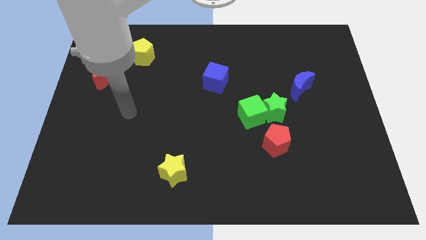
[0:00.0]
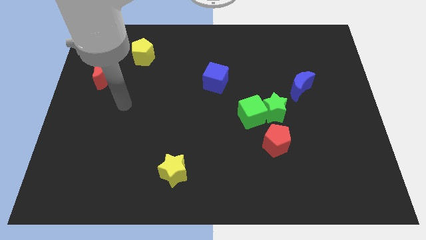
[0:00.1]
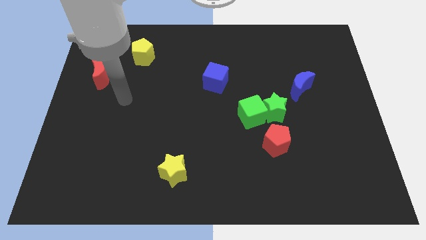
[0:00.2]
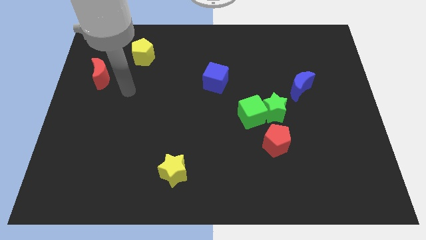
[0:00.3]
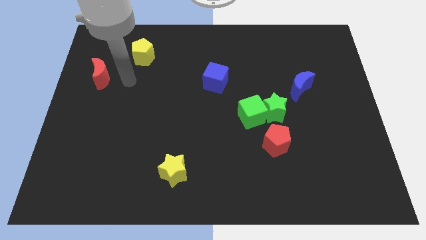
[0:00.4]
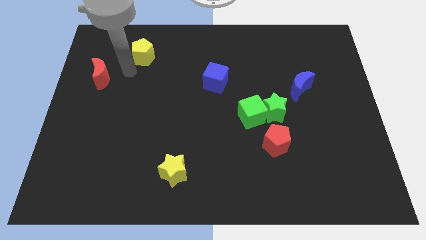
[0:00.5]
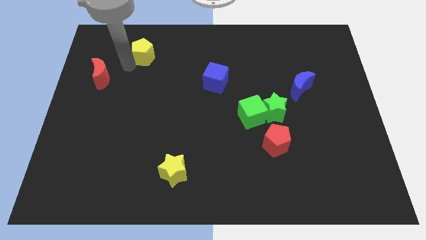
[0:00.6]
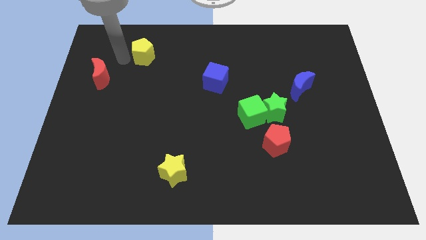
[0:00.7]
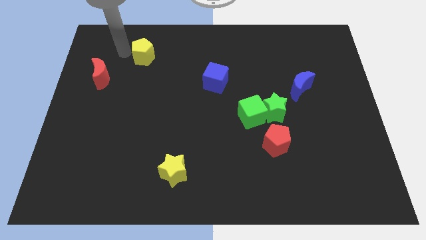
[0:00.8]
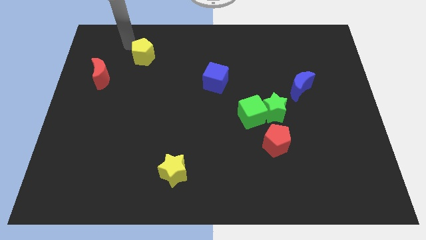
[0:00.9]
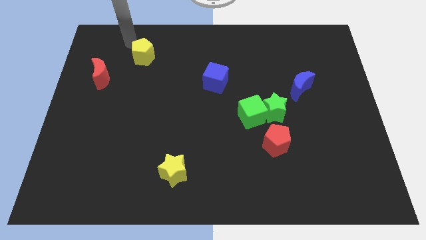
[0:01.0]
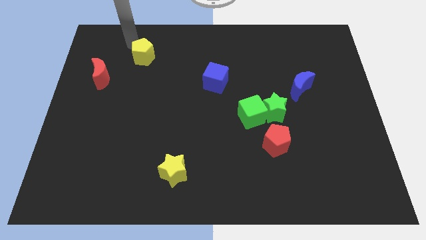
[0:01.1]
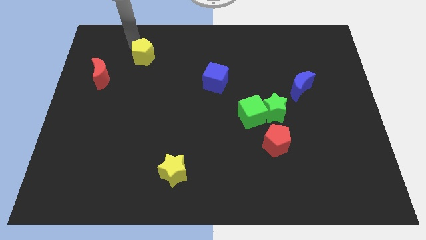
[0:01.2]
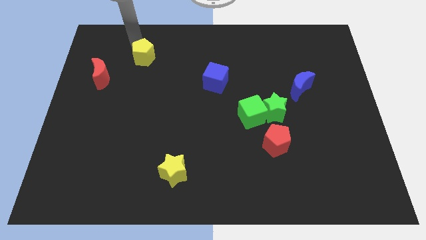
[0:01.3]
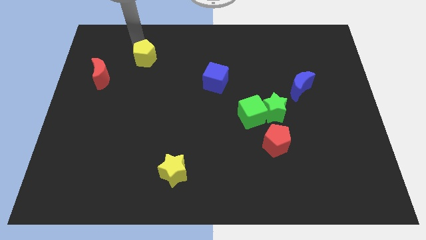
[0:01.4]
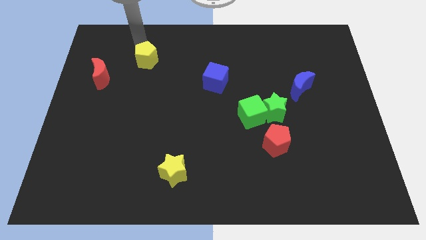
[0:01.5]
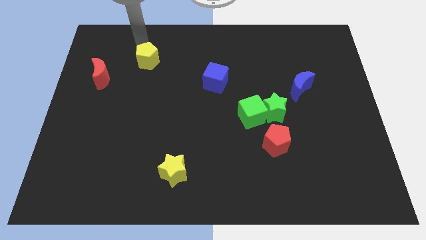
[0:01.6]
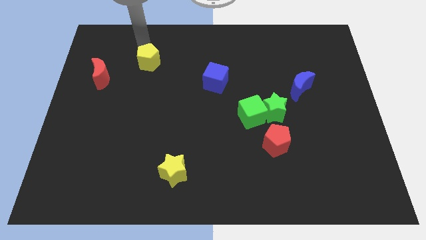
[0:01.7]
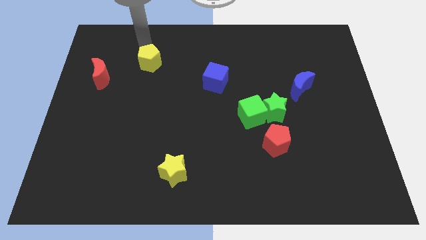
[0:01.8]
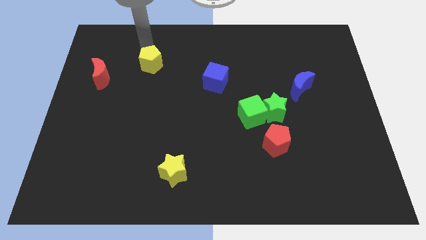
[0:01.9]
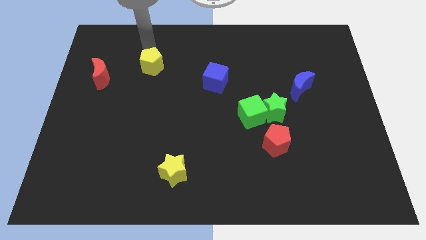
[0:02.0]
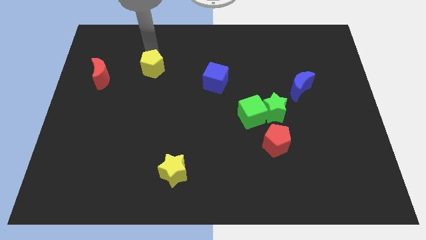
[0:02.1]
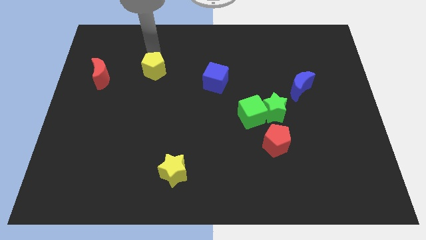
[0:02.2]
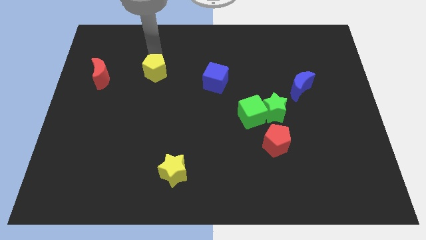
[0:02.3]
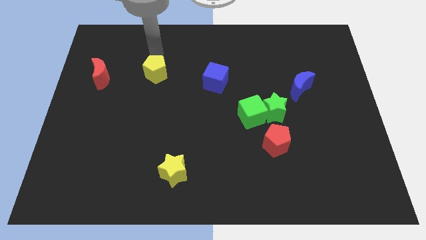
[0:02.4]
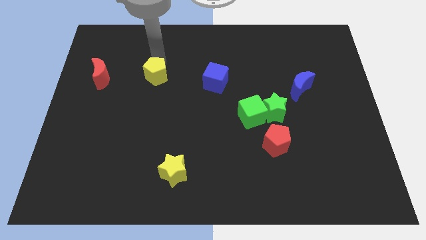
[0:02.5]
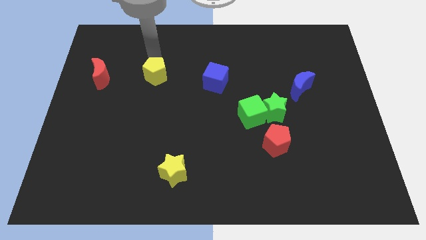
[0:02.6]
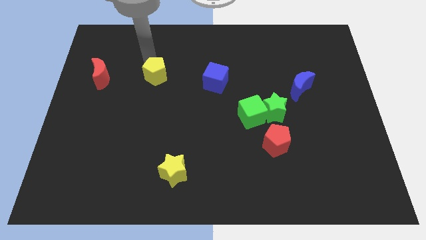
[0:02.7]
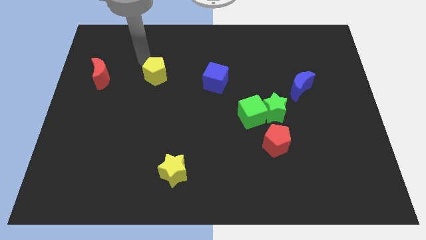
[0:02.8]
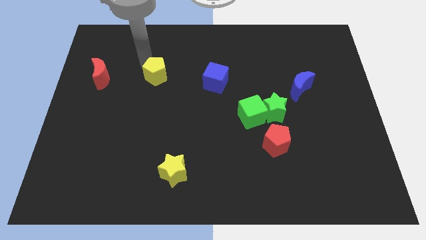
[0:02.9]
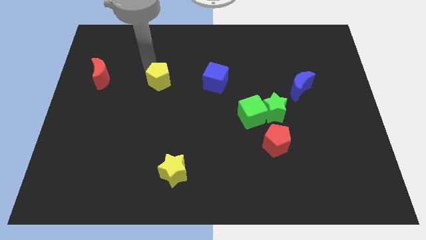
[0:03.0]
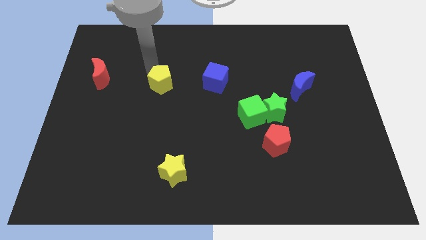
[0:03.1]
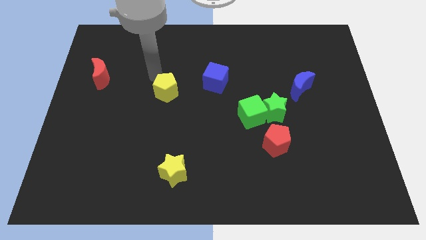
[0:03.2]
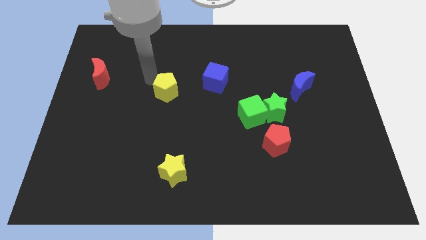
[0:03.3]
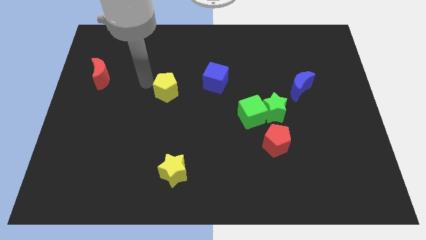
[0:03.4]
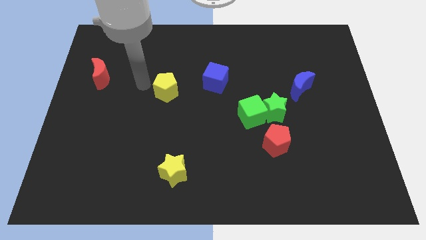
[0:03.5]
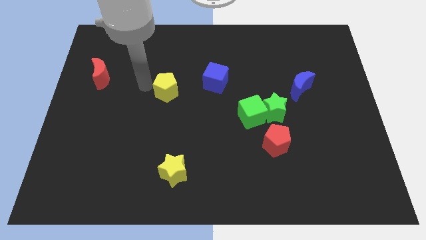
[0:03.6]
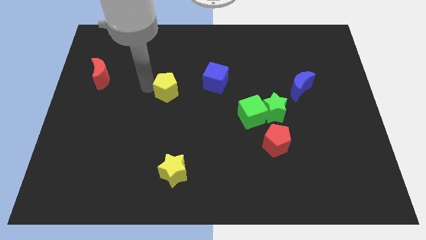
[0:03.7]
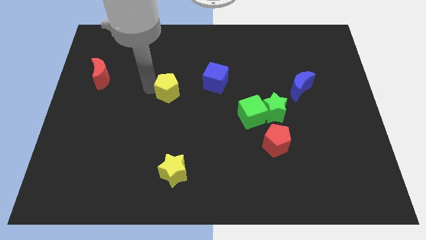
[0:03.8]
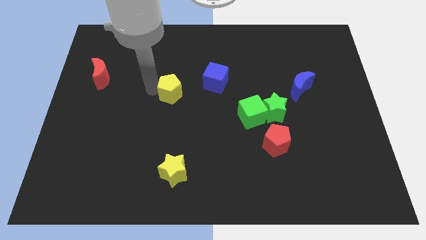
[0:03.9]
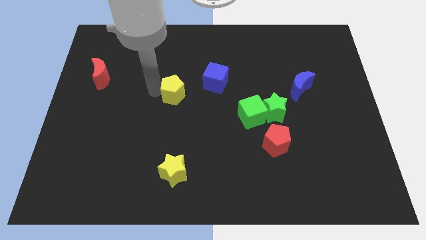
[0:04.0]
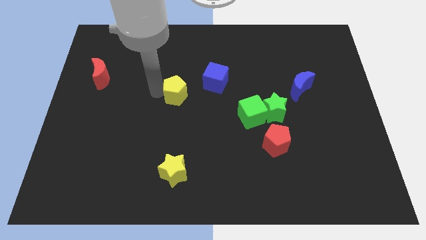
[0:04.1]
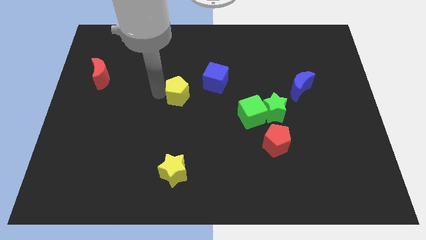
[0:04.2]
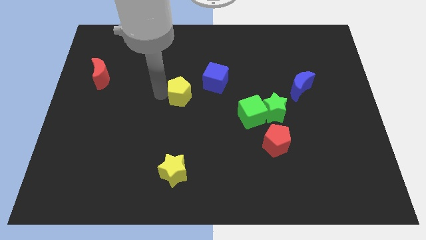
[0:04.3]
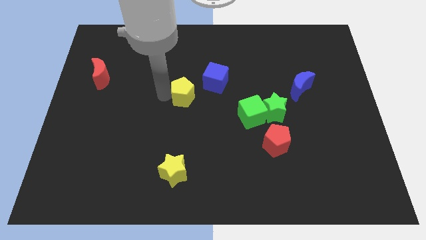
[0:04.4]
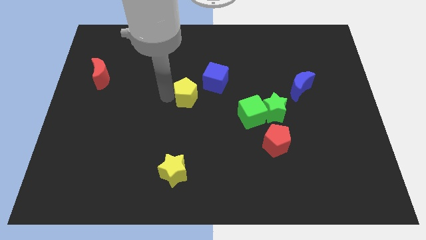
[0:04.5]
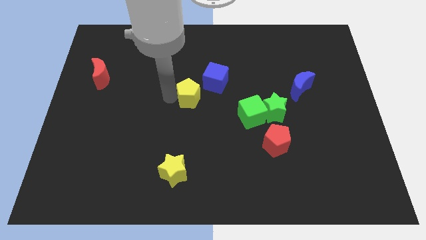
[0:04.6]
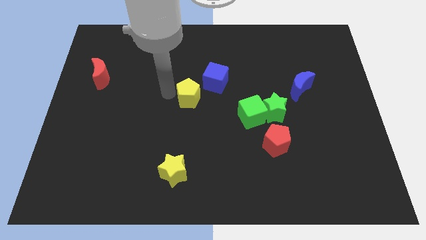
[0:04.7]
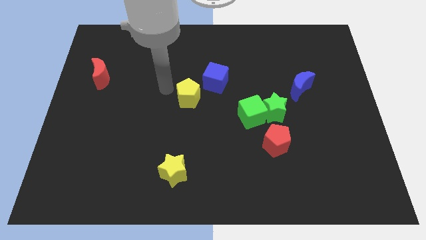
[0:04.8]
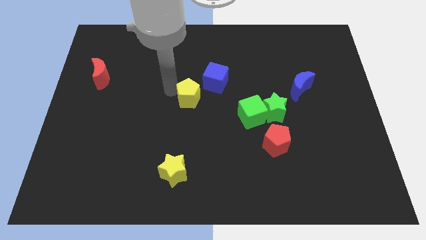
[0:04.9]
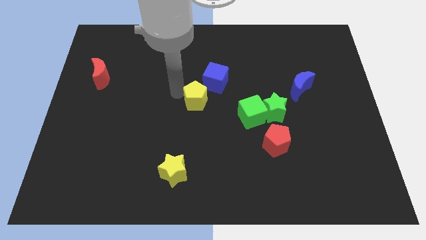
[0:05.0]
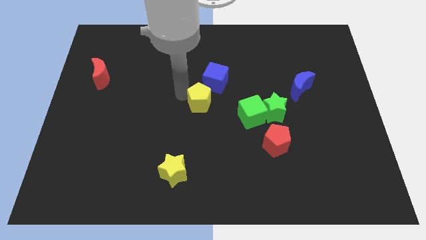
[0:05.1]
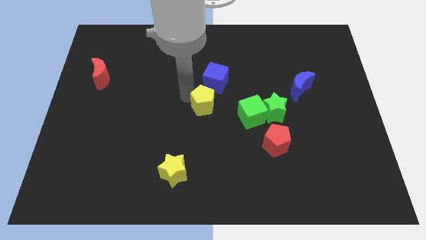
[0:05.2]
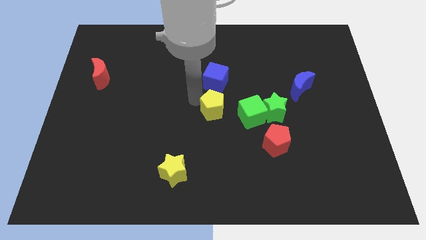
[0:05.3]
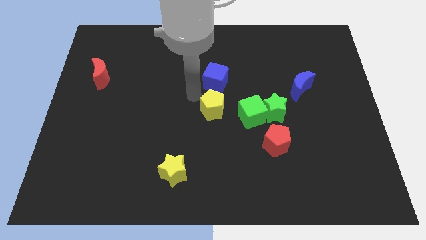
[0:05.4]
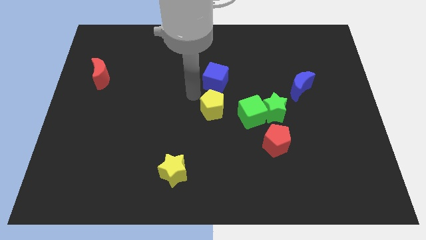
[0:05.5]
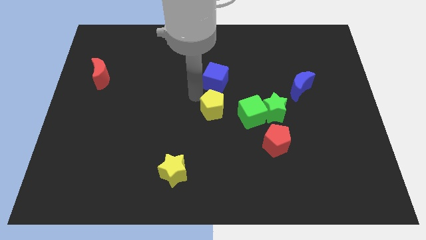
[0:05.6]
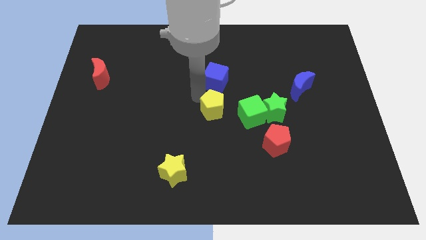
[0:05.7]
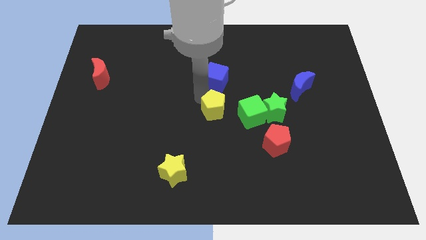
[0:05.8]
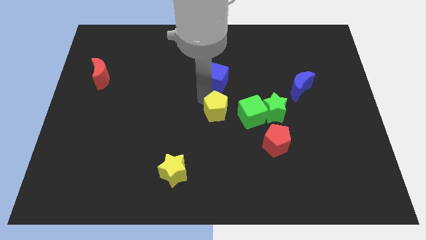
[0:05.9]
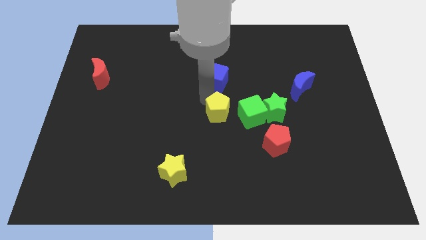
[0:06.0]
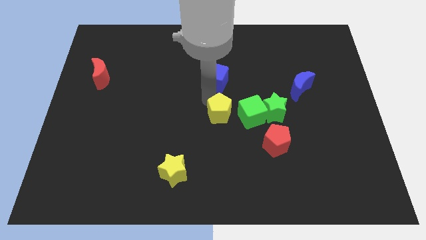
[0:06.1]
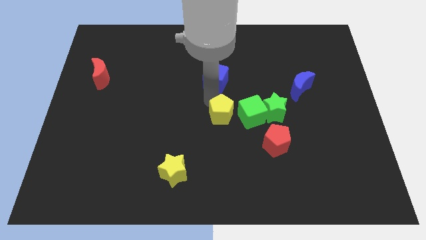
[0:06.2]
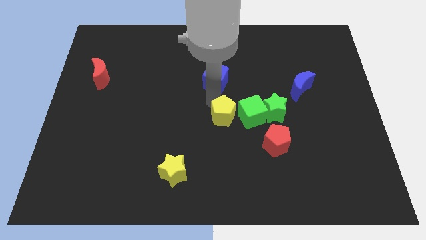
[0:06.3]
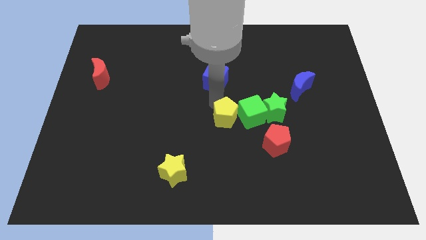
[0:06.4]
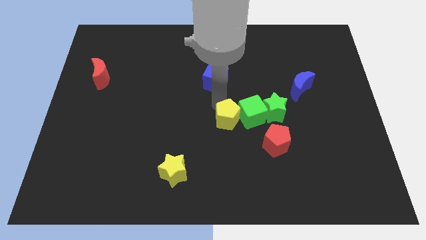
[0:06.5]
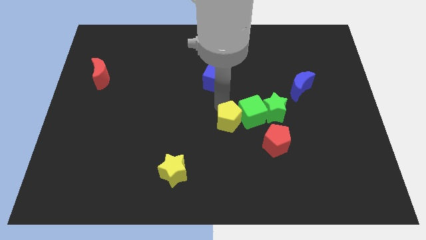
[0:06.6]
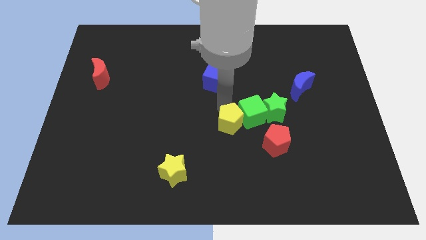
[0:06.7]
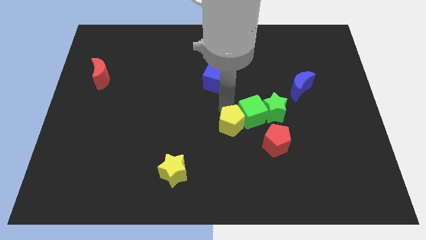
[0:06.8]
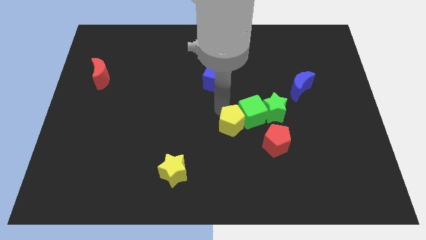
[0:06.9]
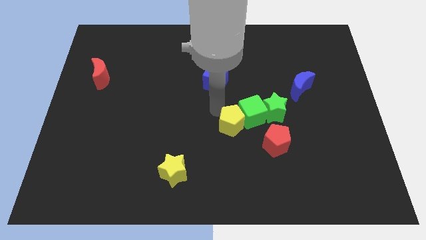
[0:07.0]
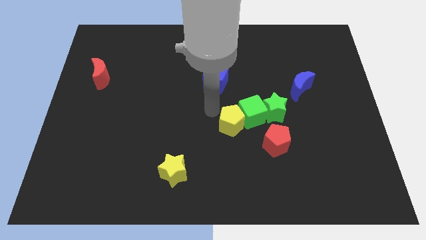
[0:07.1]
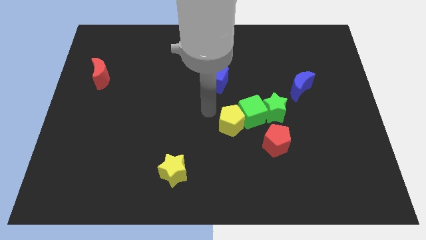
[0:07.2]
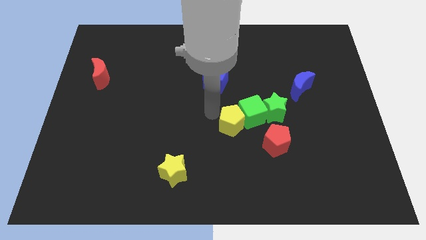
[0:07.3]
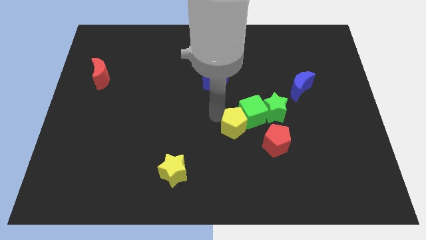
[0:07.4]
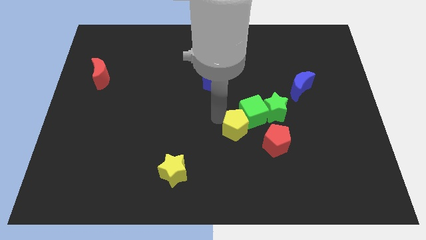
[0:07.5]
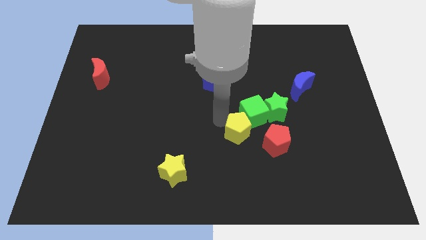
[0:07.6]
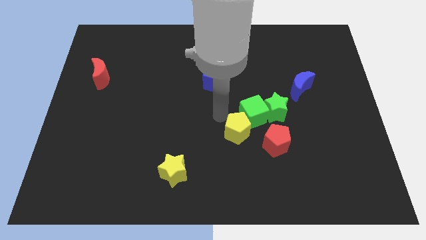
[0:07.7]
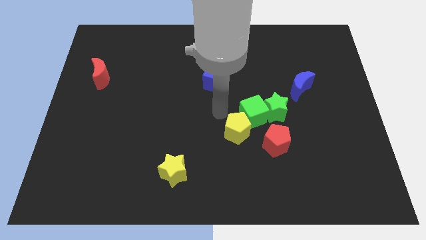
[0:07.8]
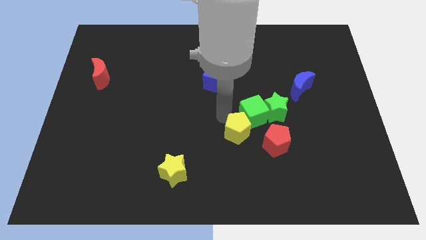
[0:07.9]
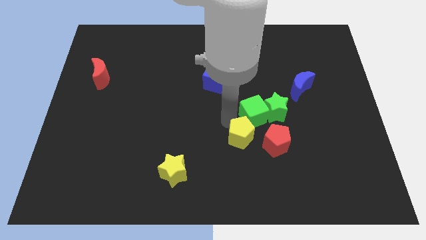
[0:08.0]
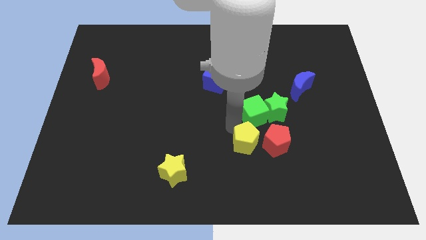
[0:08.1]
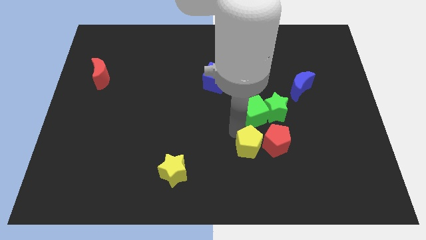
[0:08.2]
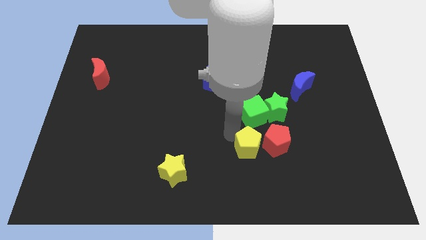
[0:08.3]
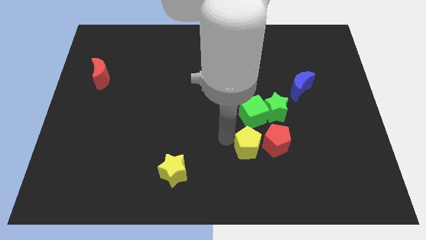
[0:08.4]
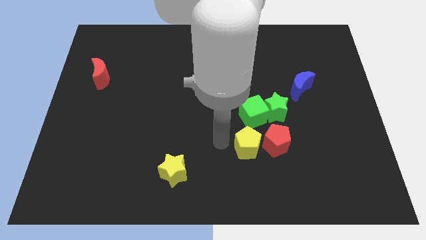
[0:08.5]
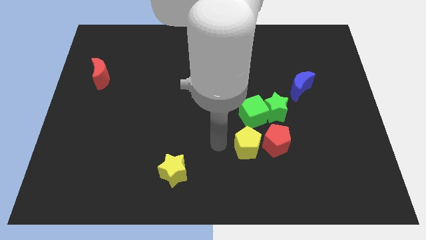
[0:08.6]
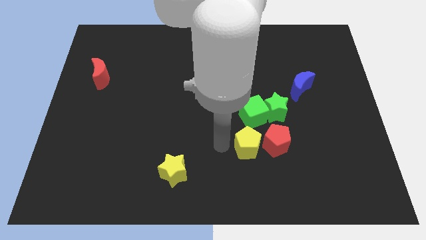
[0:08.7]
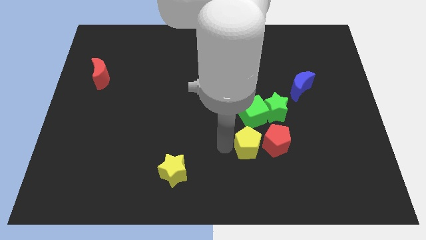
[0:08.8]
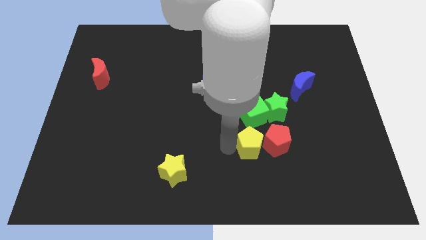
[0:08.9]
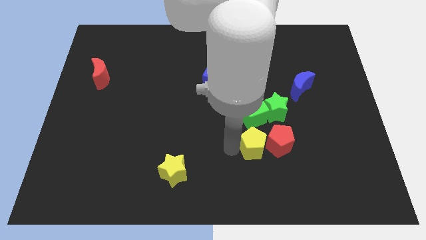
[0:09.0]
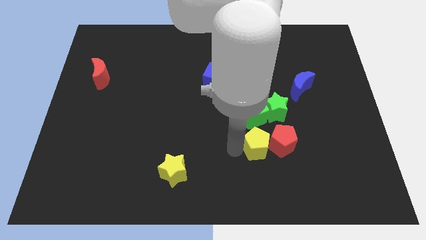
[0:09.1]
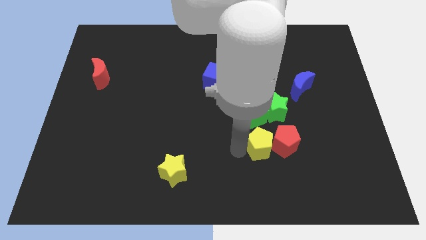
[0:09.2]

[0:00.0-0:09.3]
slide the yellow pentagon to the bottom side of the green star
